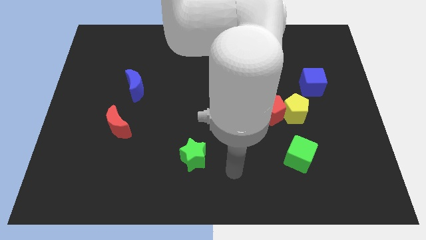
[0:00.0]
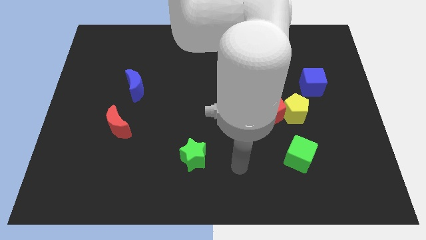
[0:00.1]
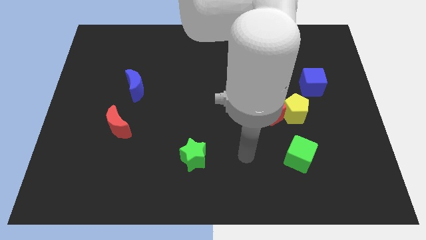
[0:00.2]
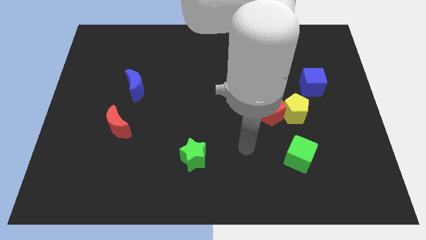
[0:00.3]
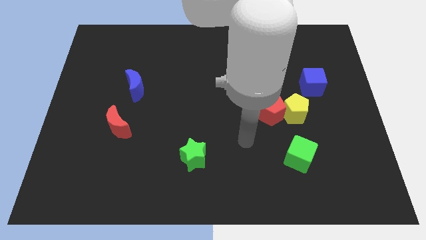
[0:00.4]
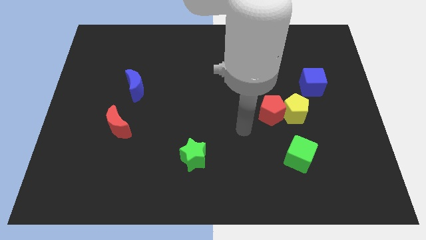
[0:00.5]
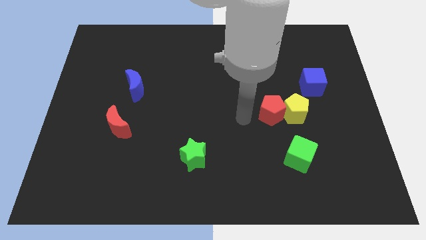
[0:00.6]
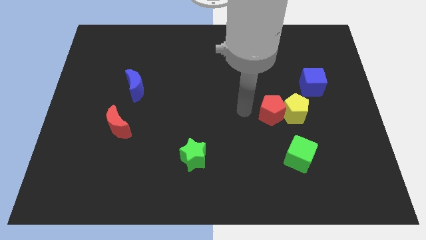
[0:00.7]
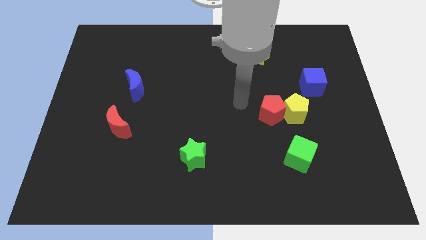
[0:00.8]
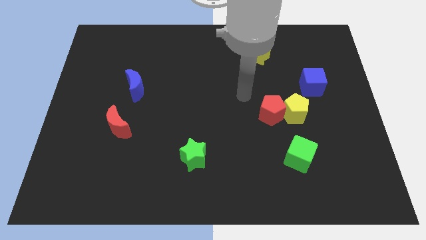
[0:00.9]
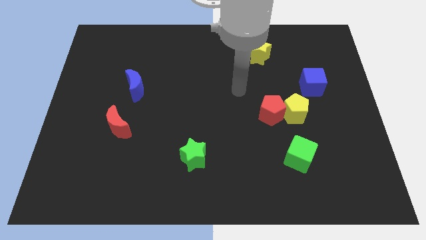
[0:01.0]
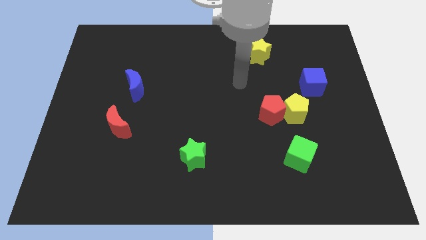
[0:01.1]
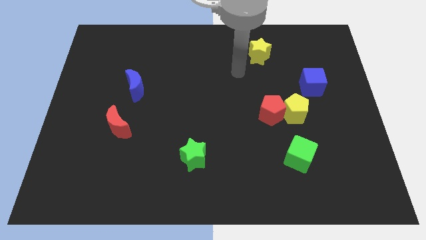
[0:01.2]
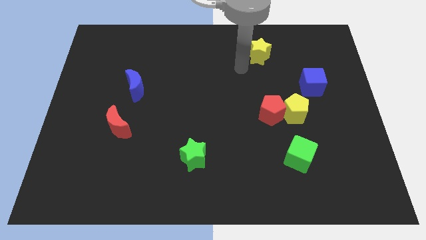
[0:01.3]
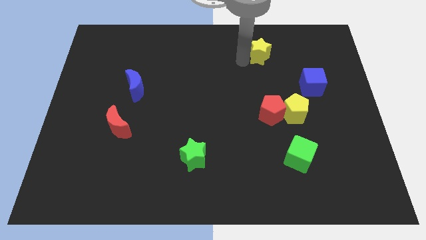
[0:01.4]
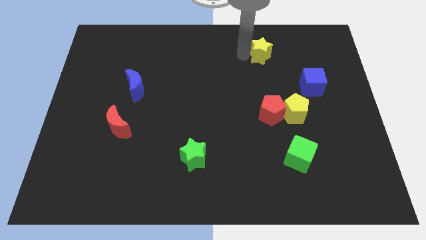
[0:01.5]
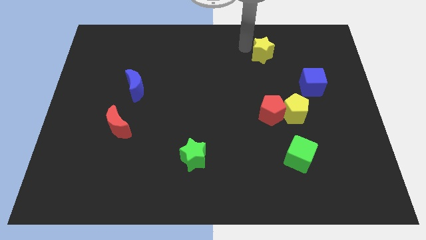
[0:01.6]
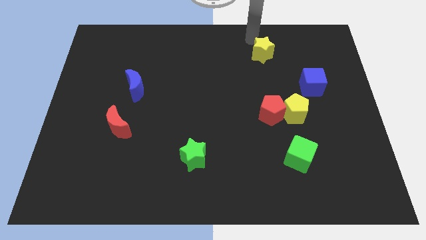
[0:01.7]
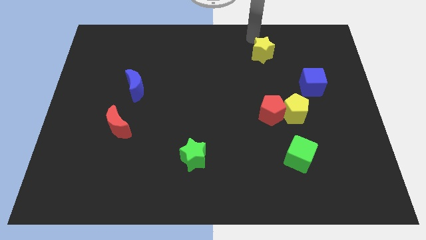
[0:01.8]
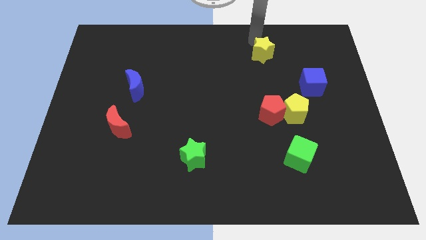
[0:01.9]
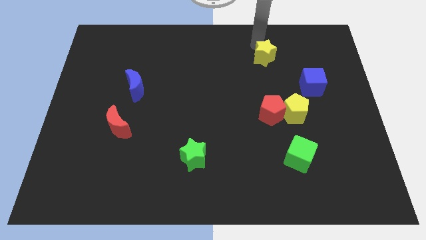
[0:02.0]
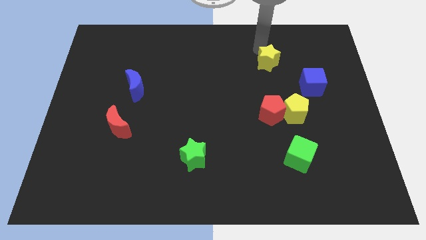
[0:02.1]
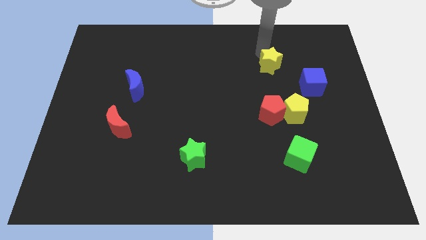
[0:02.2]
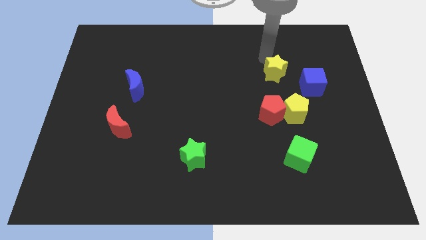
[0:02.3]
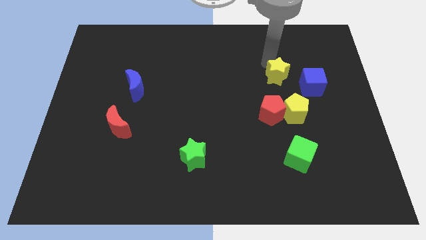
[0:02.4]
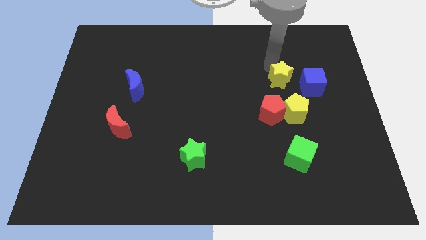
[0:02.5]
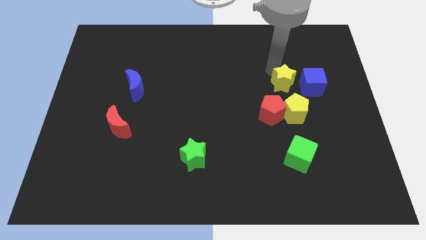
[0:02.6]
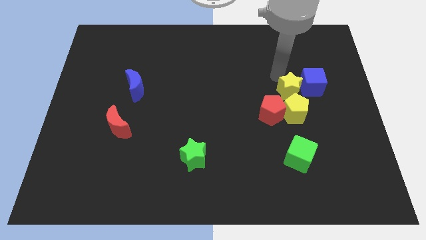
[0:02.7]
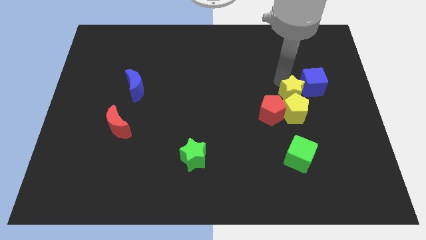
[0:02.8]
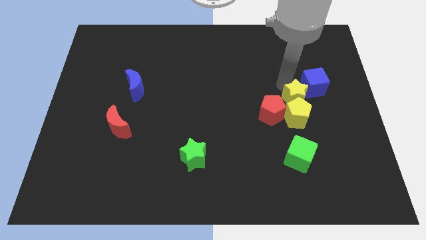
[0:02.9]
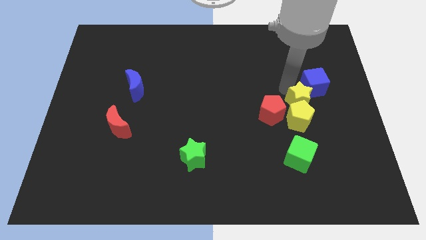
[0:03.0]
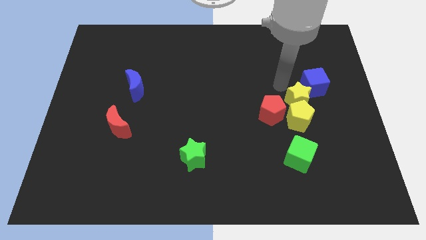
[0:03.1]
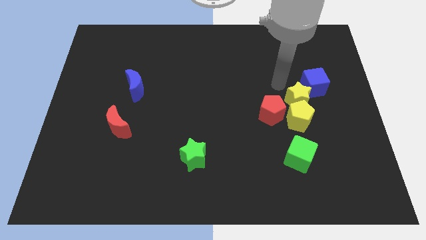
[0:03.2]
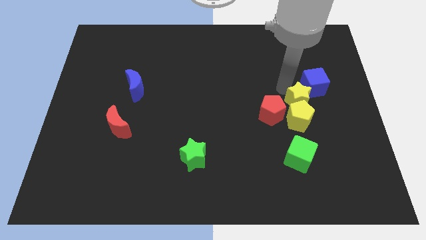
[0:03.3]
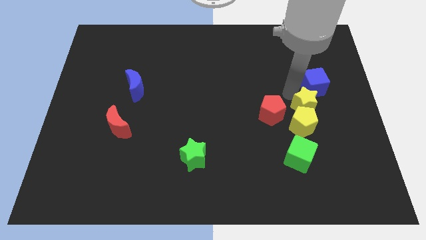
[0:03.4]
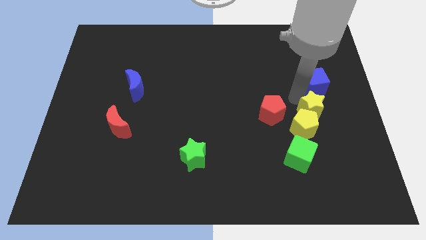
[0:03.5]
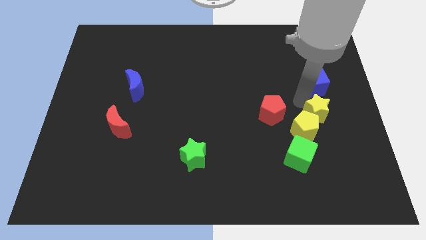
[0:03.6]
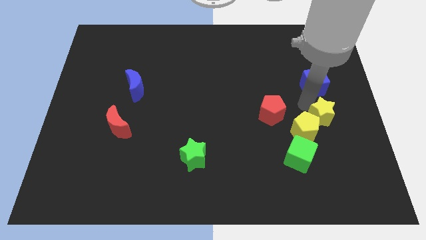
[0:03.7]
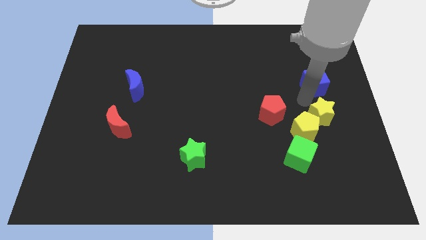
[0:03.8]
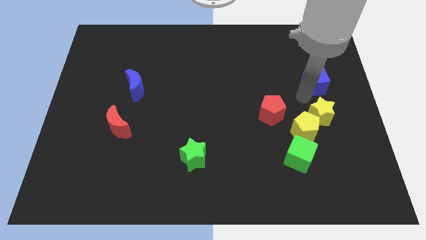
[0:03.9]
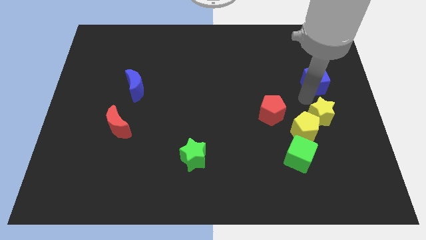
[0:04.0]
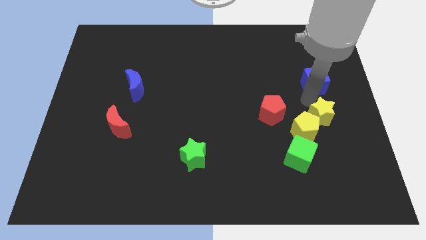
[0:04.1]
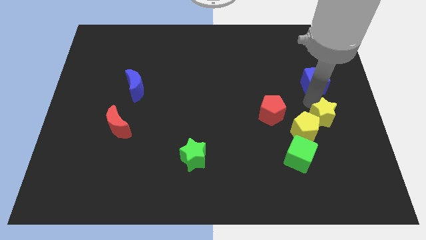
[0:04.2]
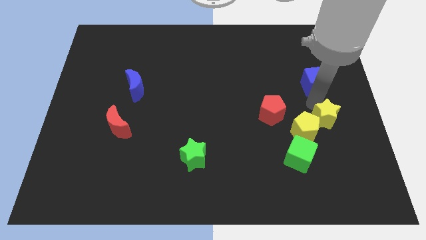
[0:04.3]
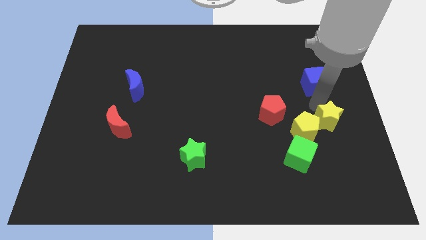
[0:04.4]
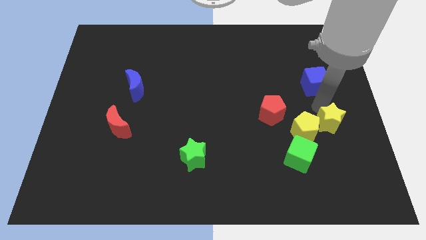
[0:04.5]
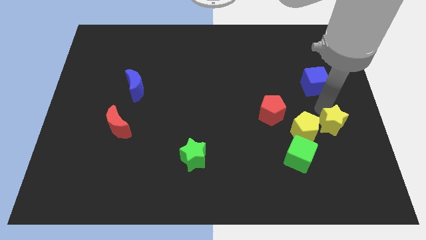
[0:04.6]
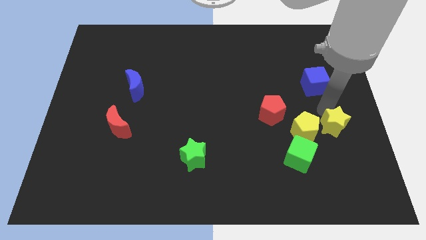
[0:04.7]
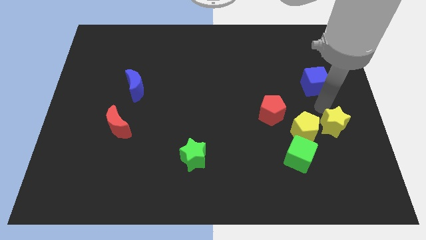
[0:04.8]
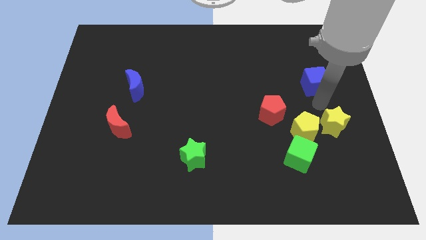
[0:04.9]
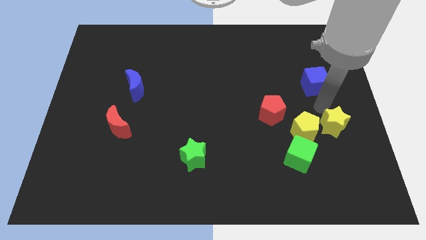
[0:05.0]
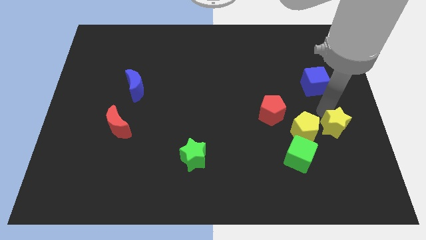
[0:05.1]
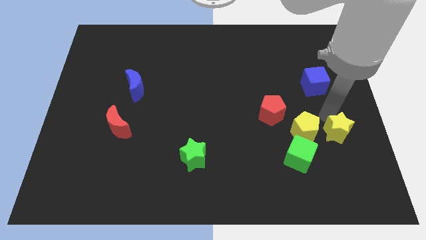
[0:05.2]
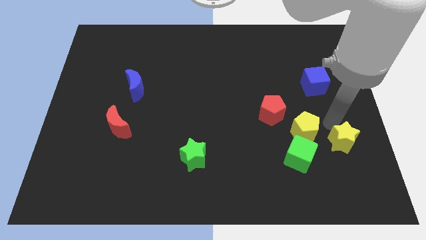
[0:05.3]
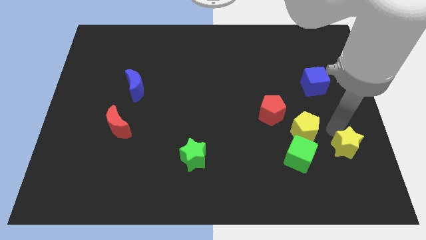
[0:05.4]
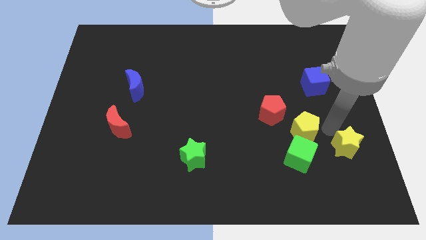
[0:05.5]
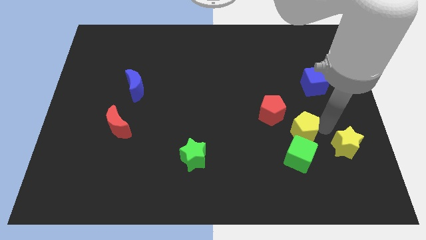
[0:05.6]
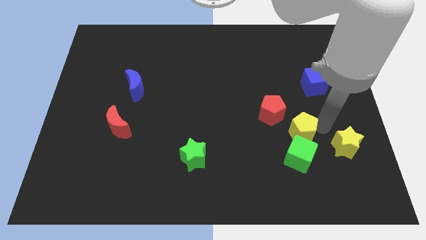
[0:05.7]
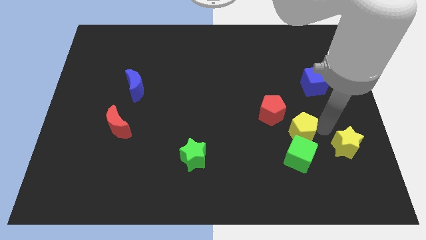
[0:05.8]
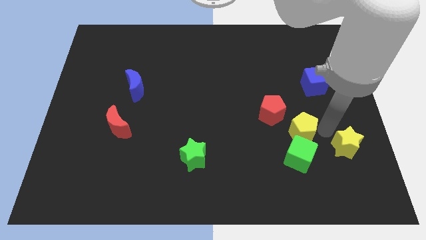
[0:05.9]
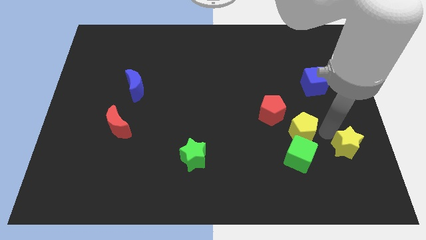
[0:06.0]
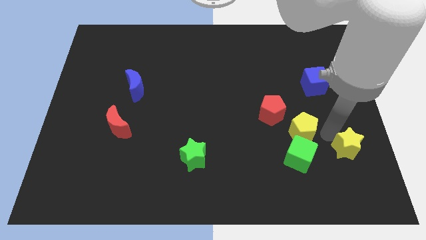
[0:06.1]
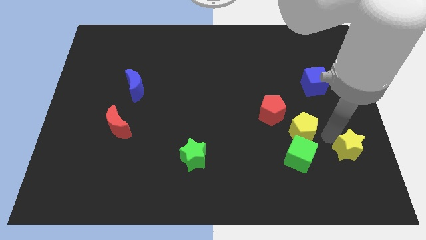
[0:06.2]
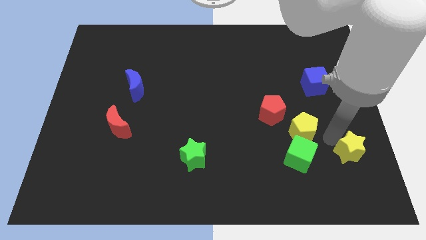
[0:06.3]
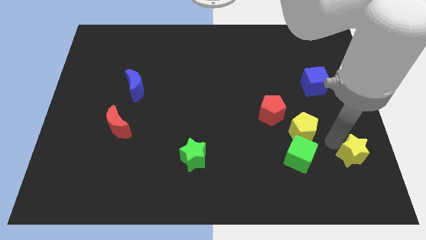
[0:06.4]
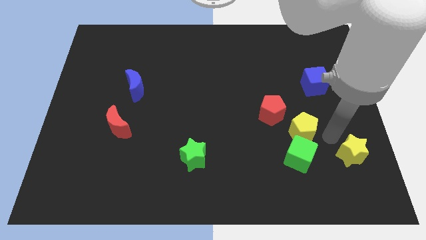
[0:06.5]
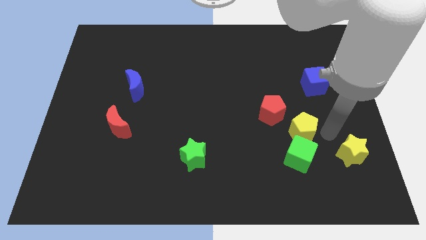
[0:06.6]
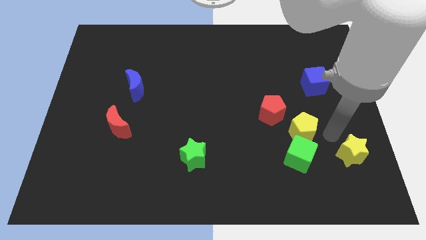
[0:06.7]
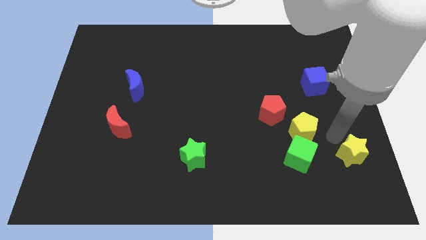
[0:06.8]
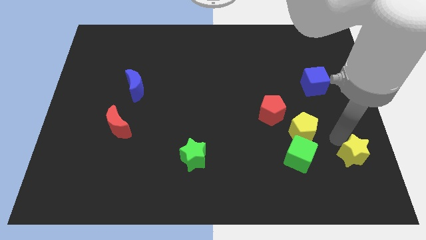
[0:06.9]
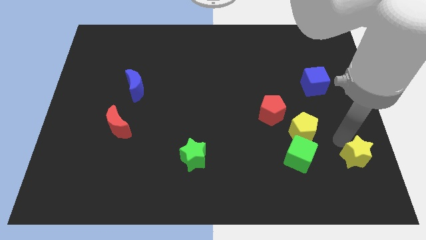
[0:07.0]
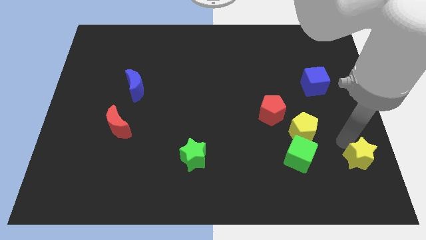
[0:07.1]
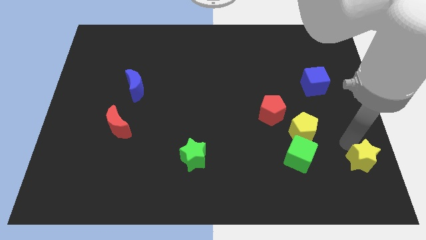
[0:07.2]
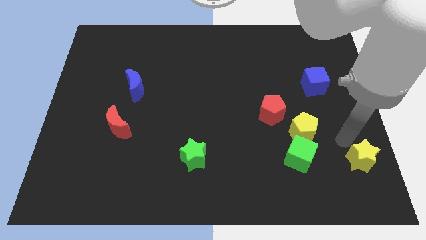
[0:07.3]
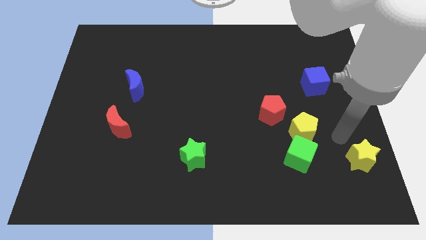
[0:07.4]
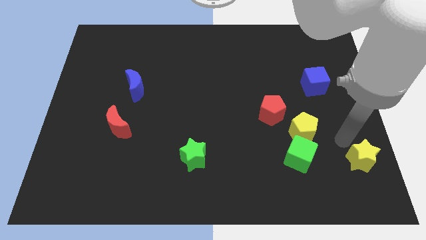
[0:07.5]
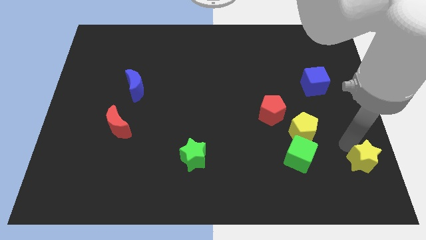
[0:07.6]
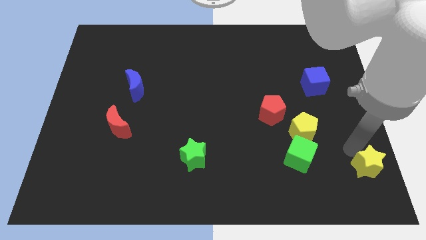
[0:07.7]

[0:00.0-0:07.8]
put the yellow star to the bottom right of the board
